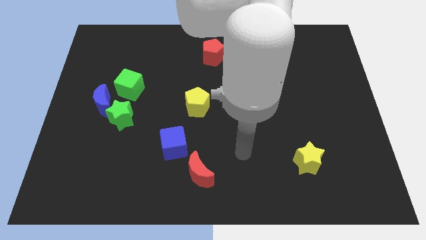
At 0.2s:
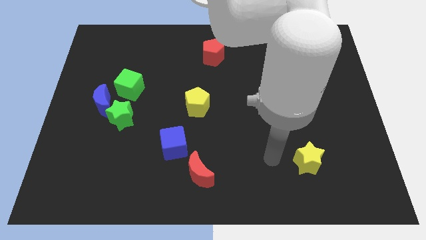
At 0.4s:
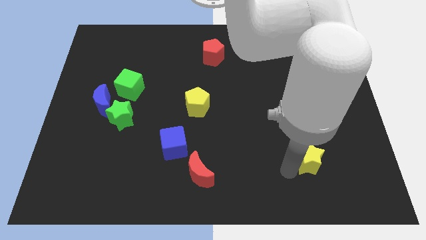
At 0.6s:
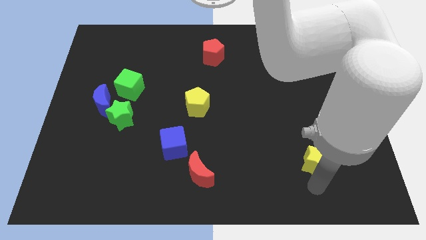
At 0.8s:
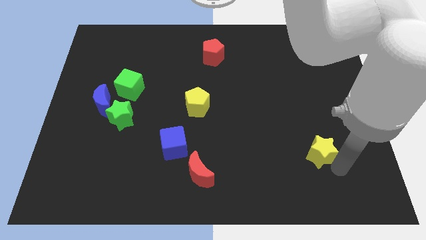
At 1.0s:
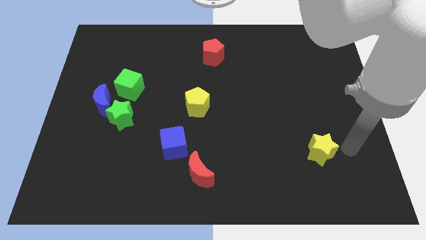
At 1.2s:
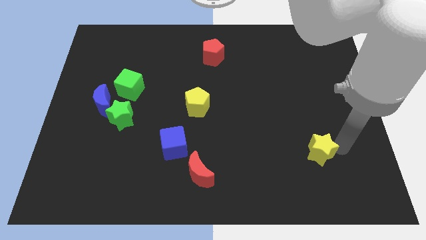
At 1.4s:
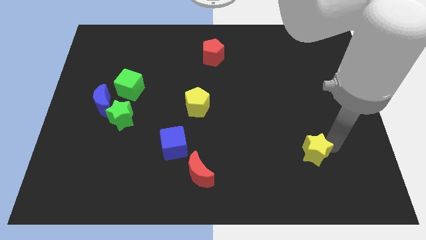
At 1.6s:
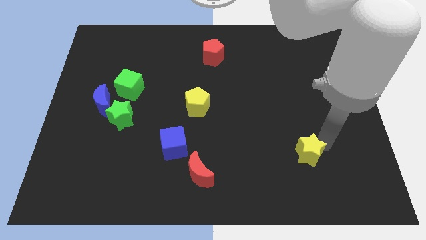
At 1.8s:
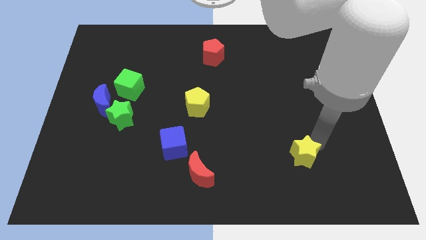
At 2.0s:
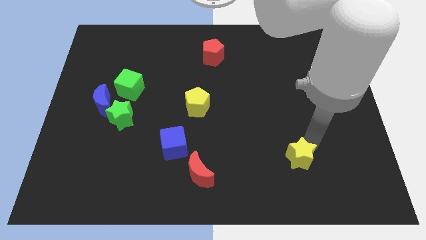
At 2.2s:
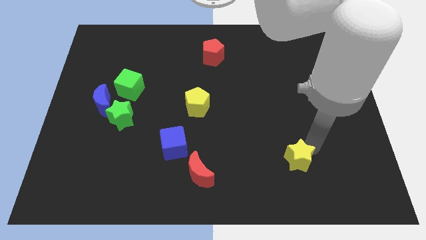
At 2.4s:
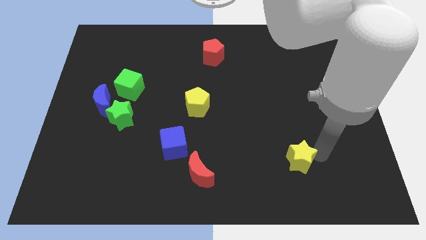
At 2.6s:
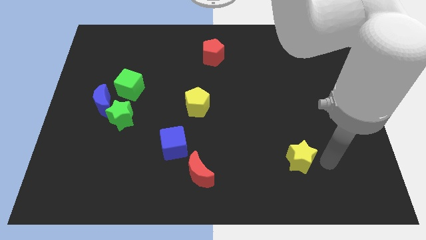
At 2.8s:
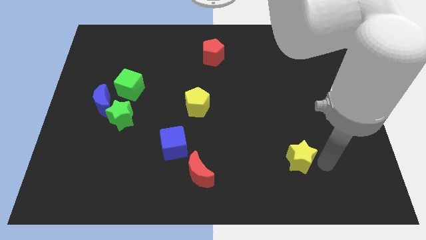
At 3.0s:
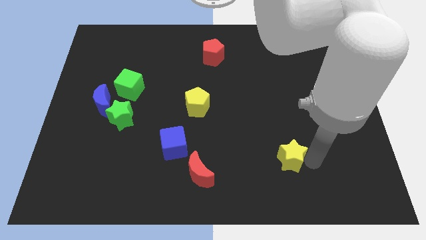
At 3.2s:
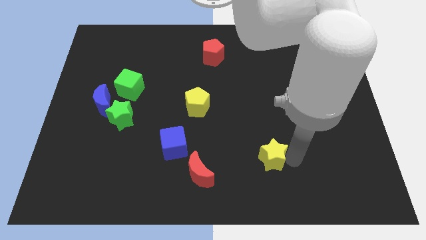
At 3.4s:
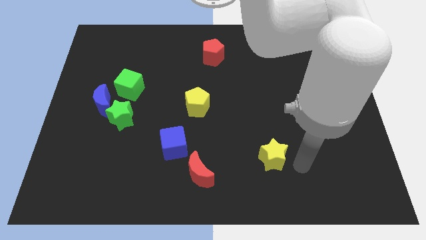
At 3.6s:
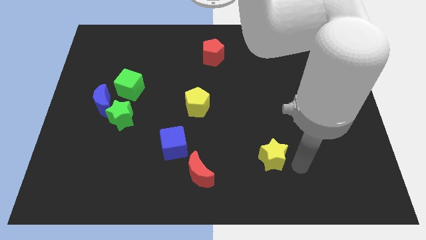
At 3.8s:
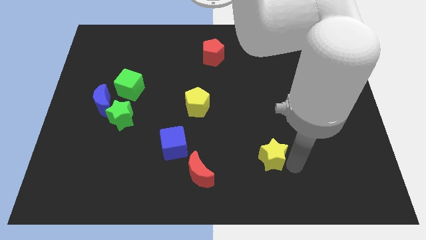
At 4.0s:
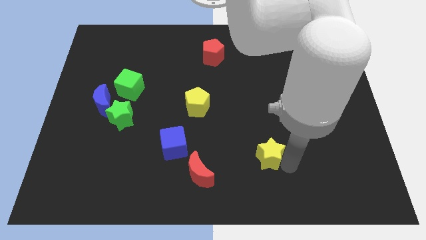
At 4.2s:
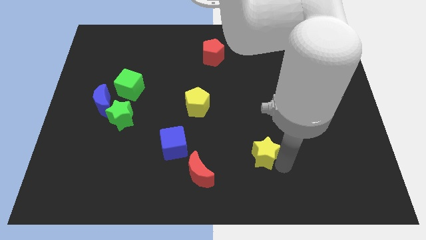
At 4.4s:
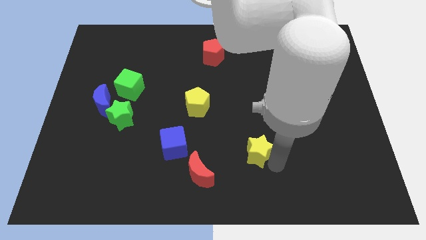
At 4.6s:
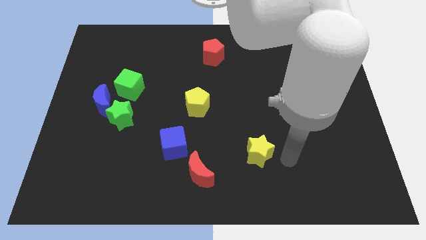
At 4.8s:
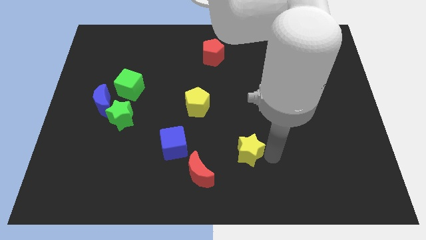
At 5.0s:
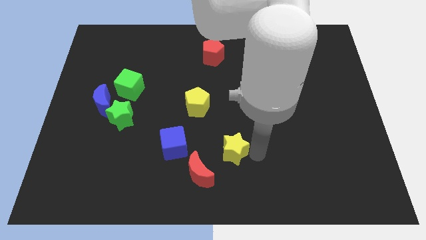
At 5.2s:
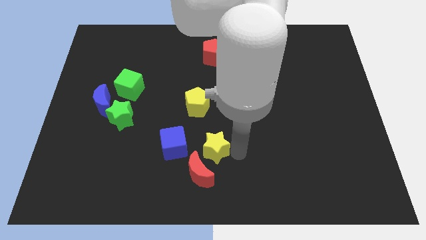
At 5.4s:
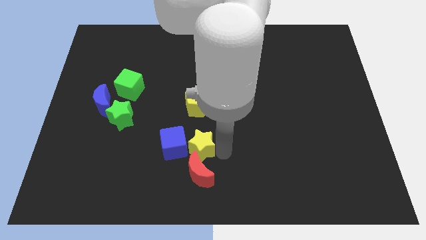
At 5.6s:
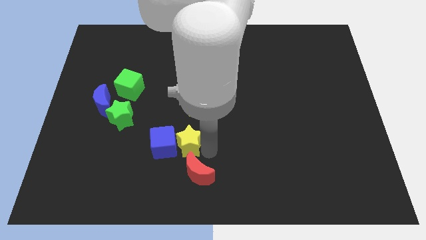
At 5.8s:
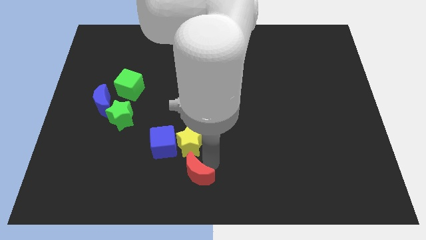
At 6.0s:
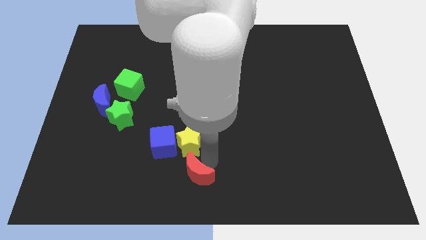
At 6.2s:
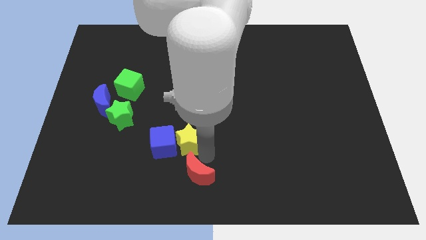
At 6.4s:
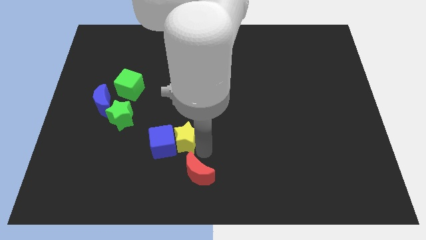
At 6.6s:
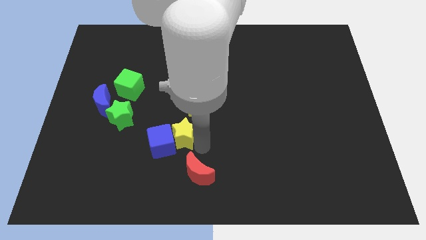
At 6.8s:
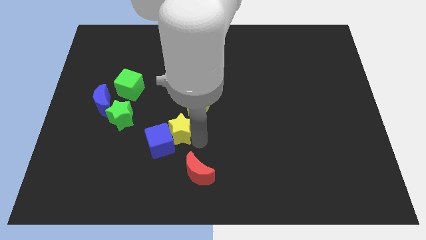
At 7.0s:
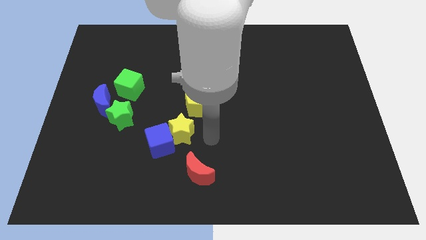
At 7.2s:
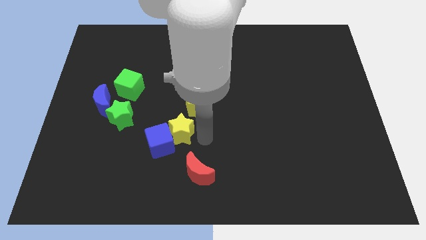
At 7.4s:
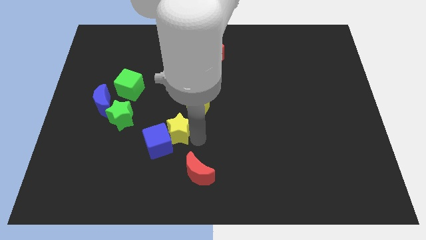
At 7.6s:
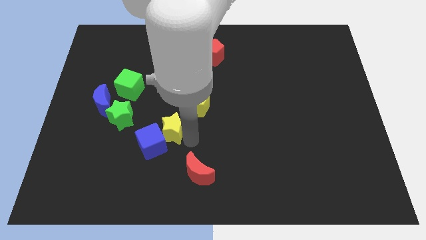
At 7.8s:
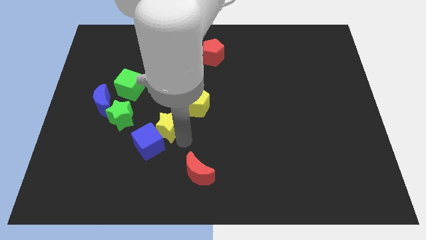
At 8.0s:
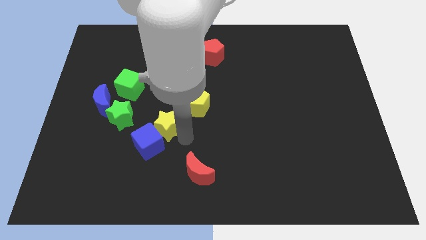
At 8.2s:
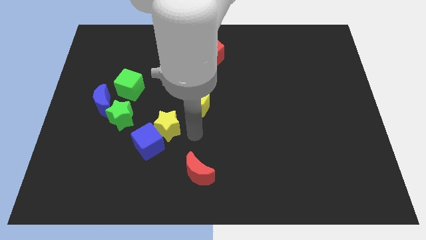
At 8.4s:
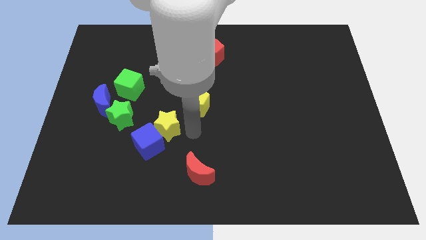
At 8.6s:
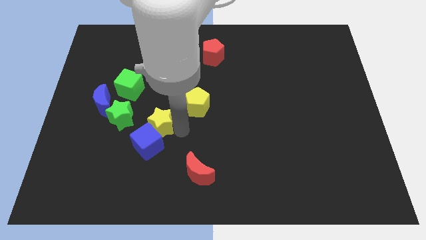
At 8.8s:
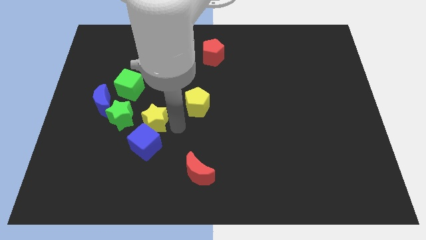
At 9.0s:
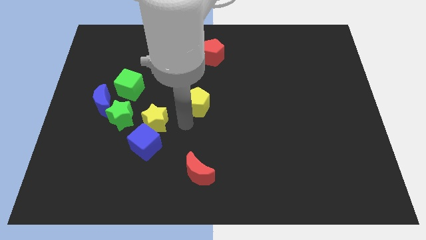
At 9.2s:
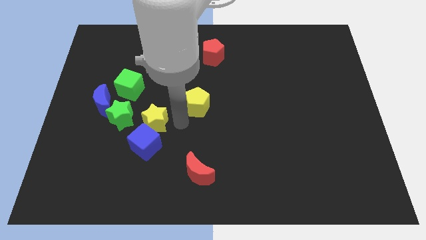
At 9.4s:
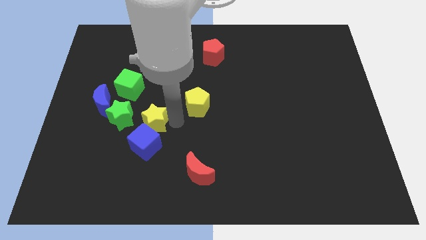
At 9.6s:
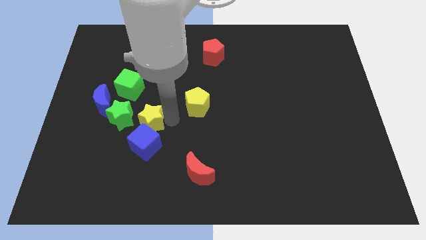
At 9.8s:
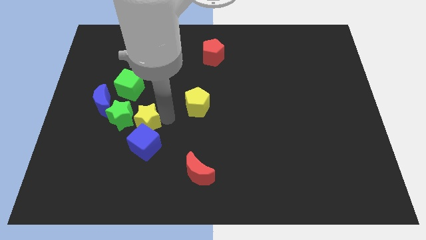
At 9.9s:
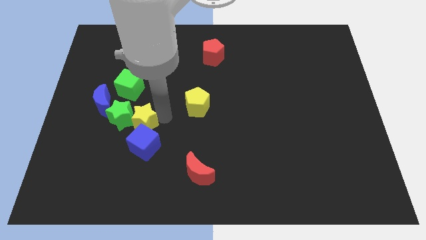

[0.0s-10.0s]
move the yellow star to the green star
